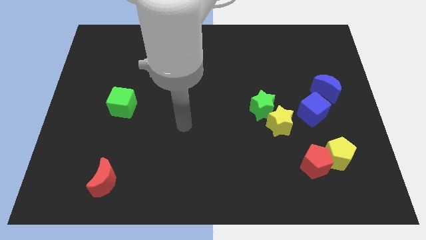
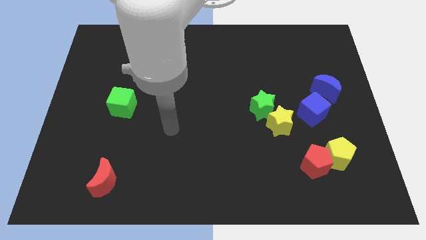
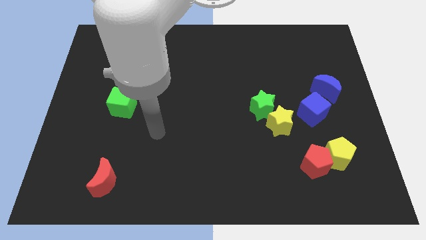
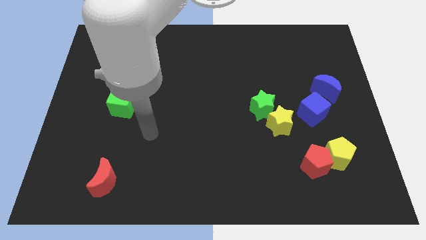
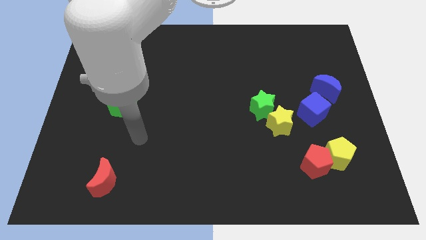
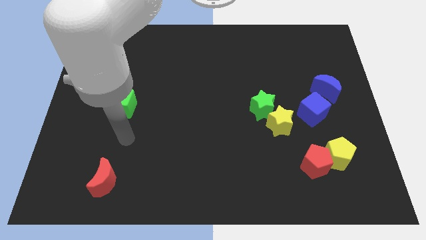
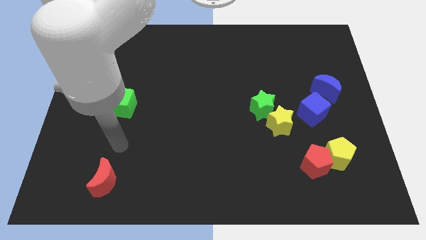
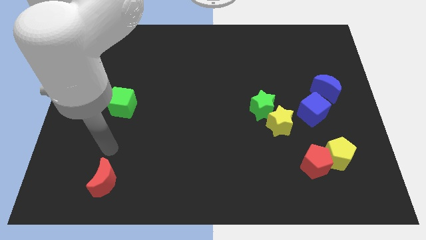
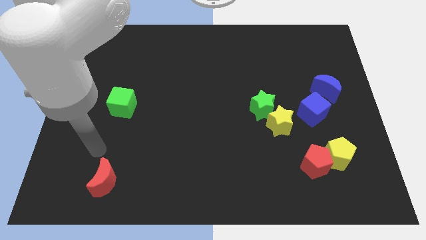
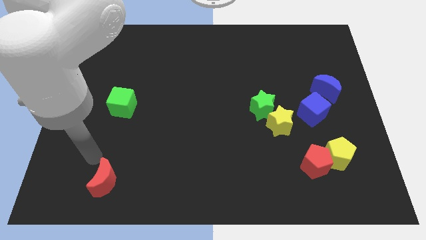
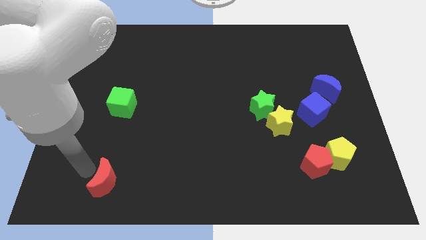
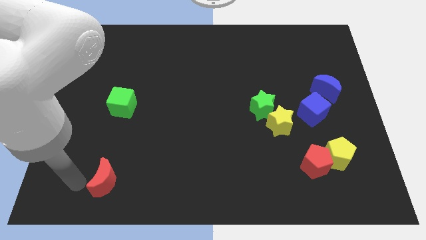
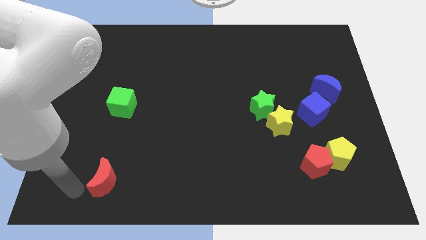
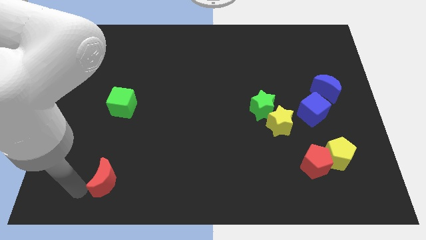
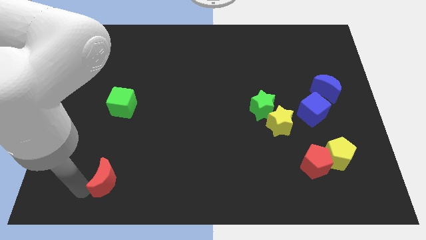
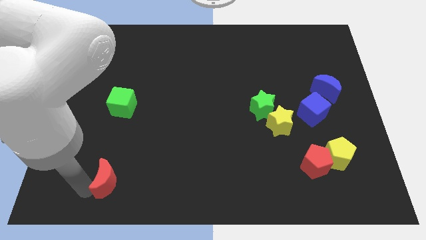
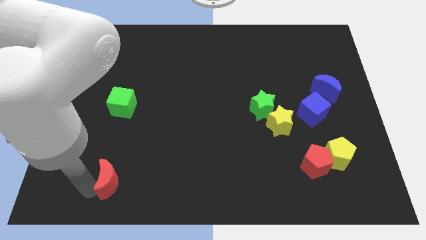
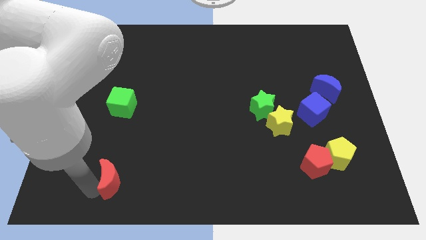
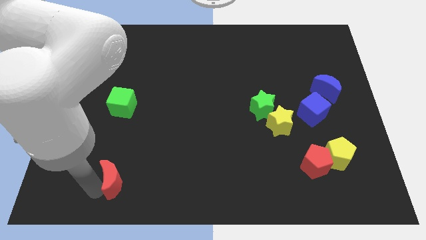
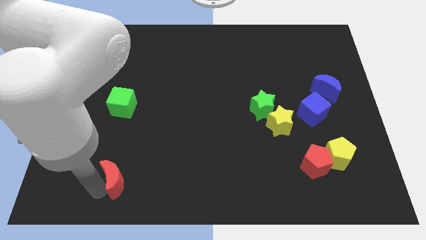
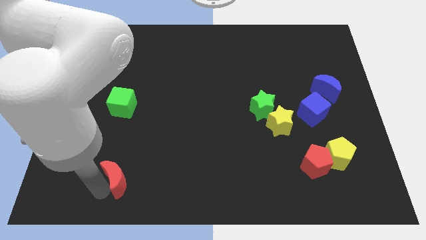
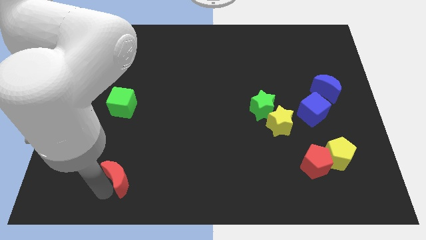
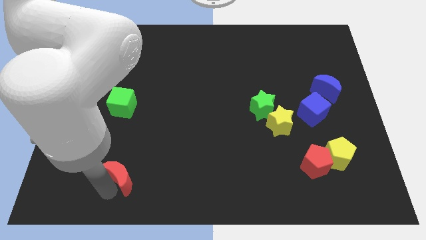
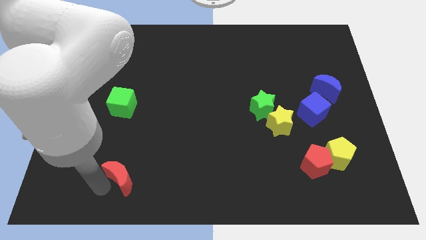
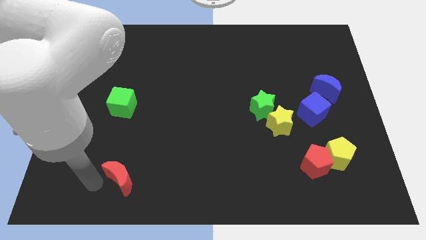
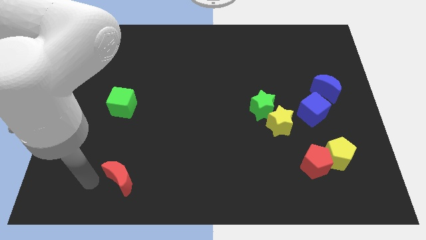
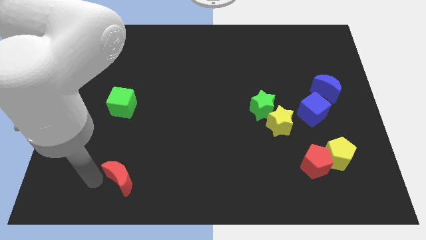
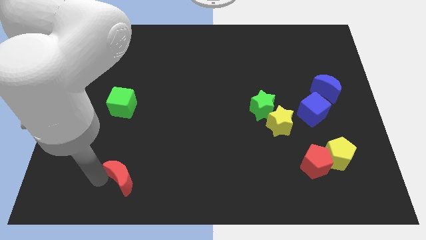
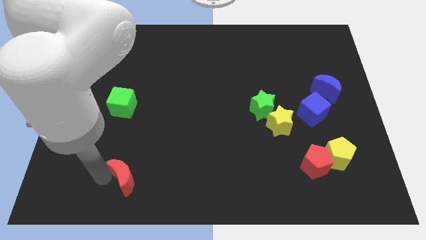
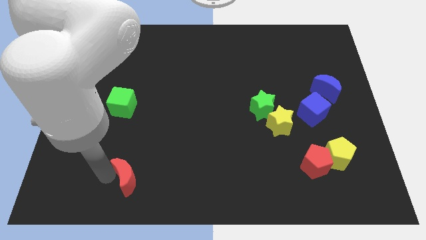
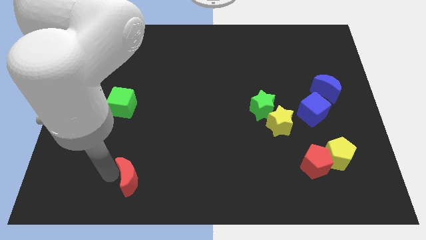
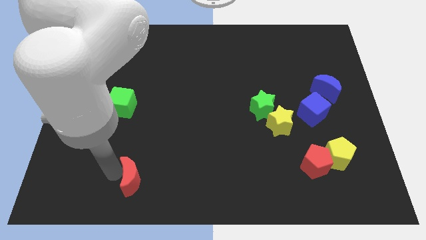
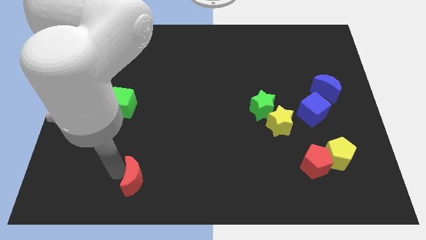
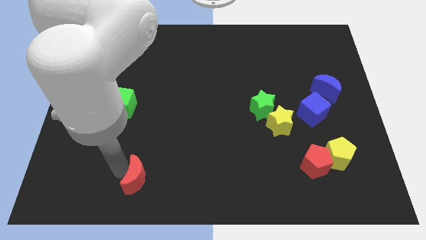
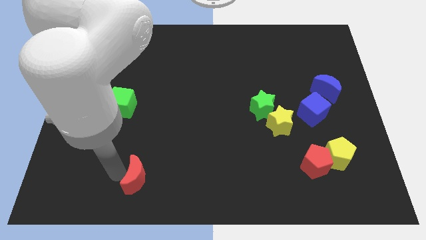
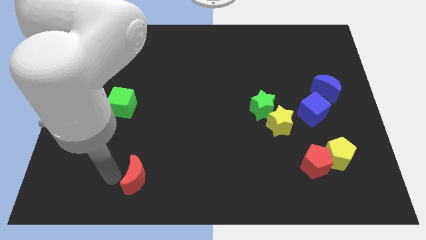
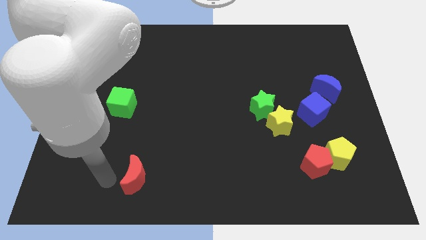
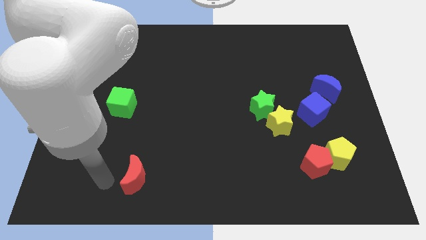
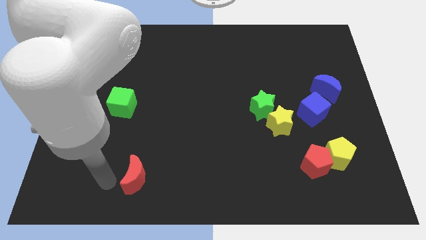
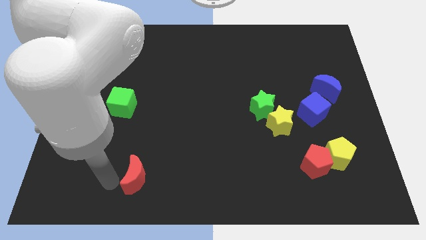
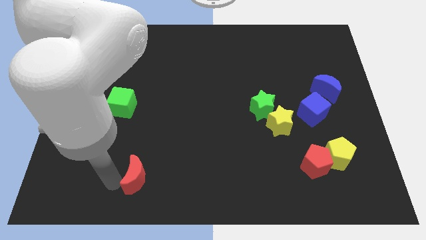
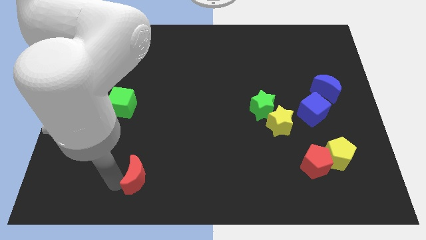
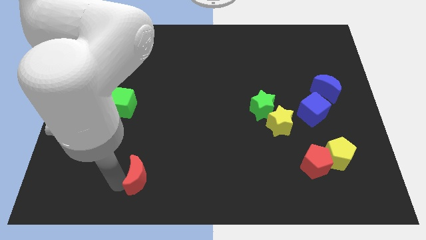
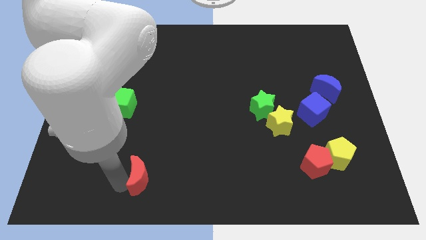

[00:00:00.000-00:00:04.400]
slightly move the red moon right

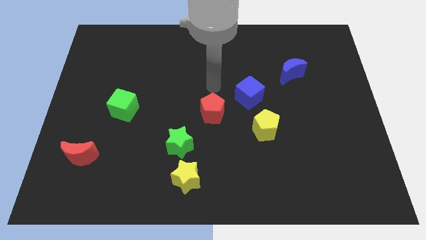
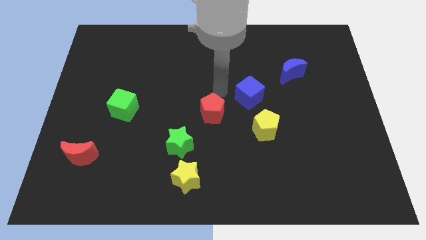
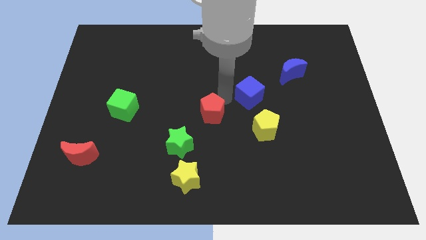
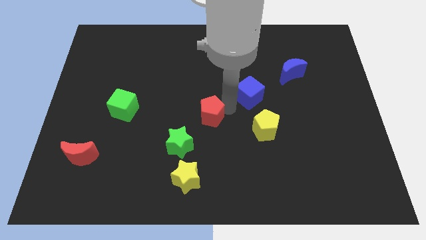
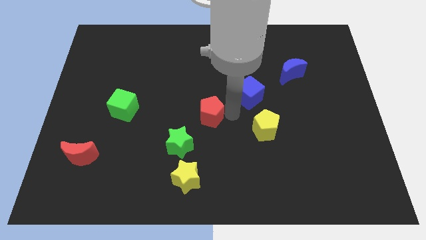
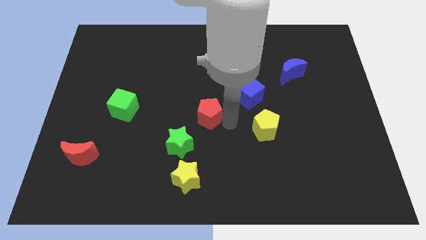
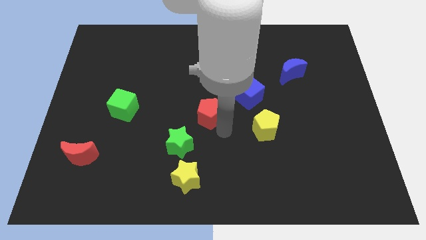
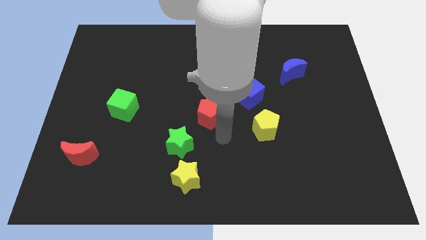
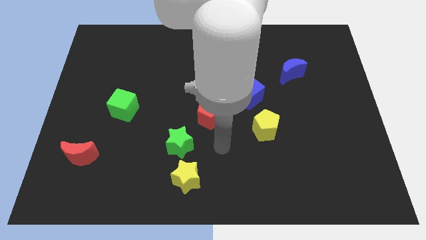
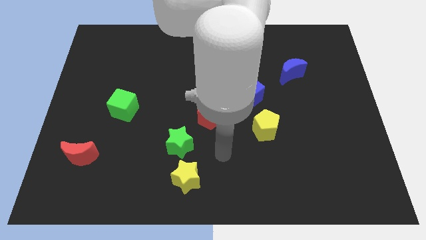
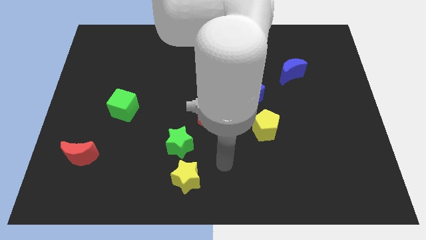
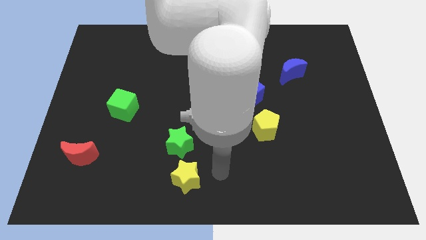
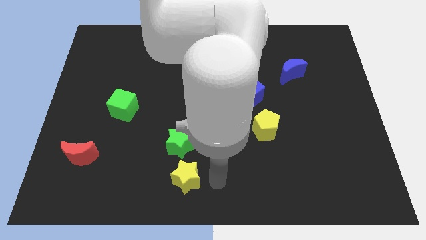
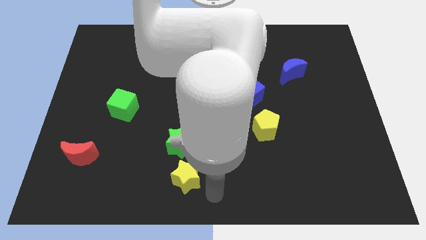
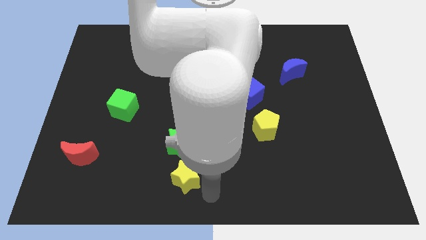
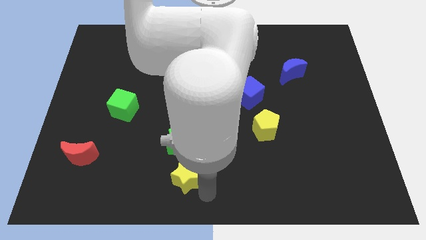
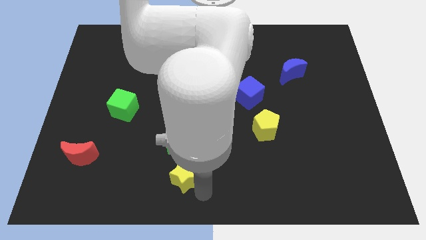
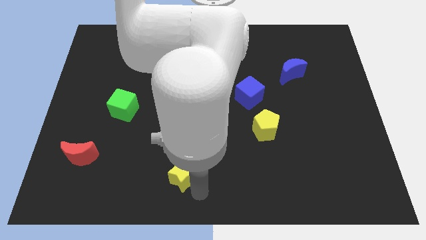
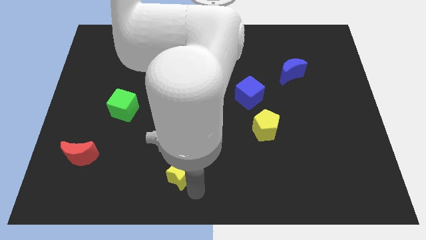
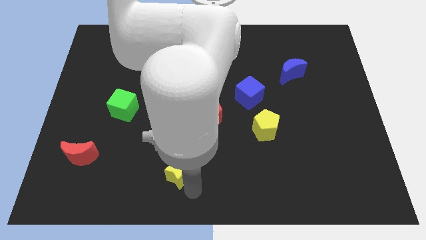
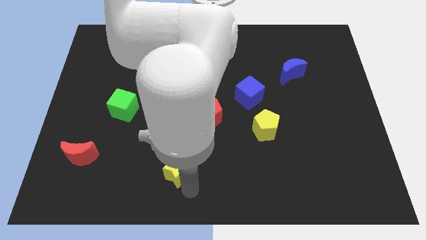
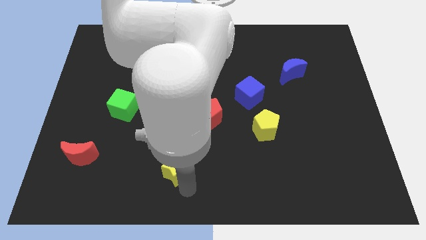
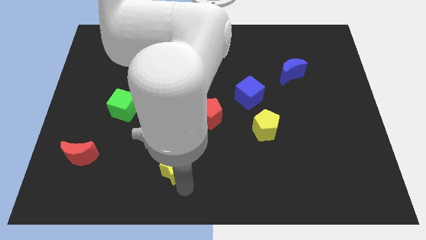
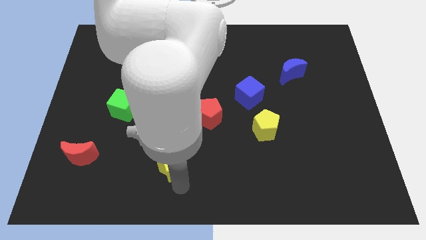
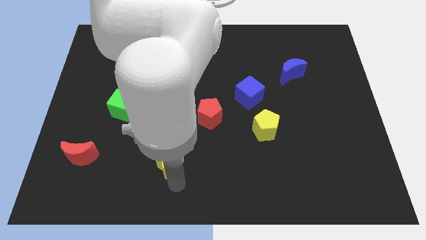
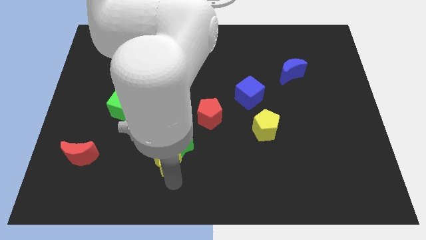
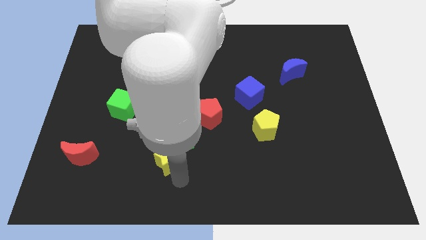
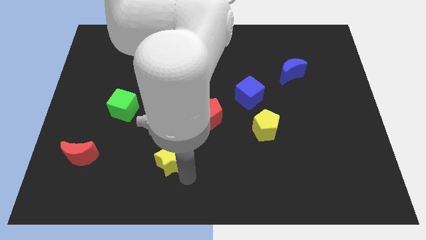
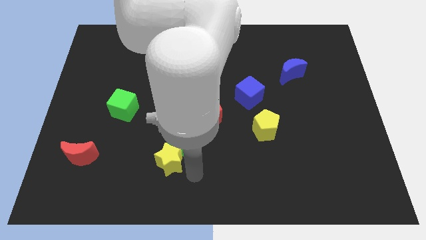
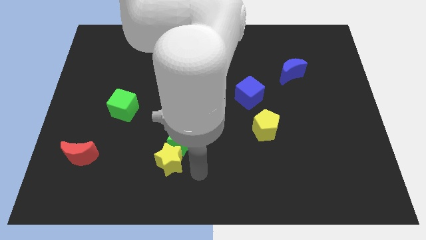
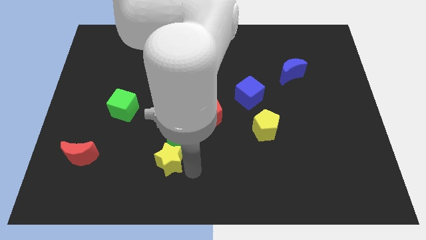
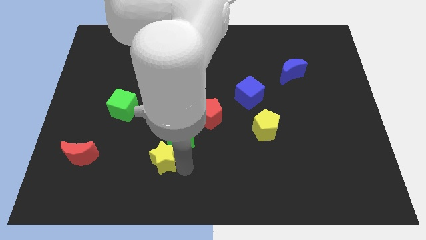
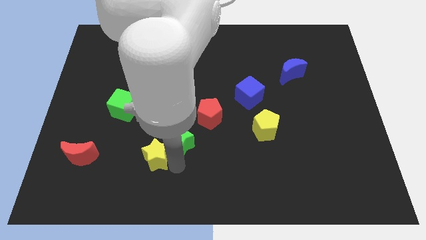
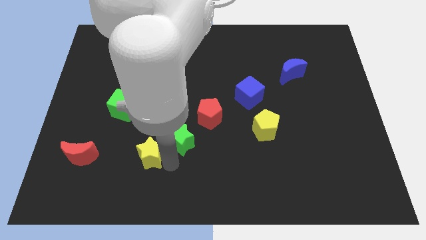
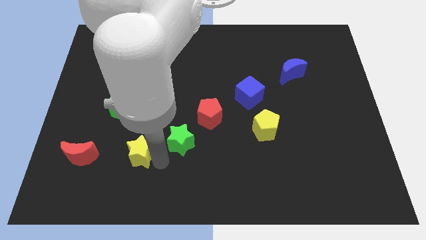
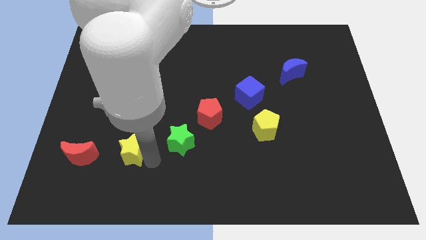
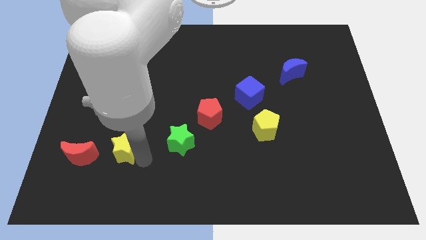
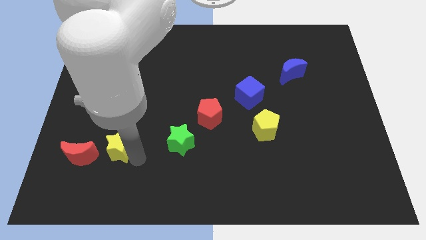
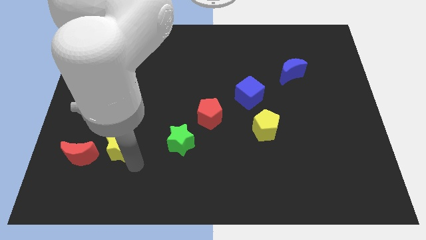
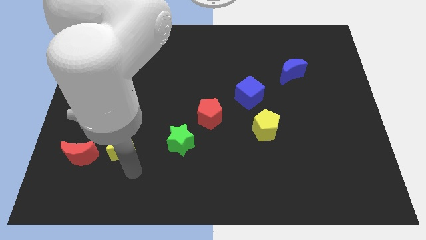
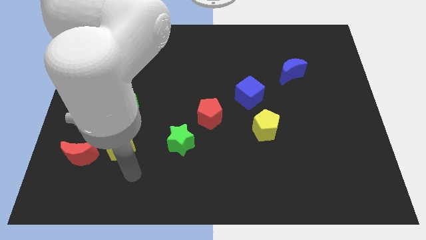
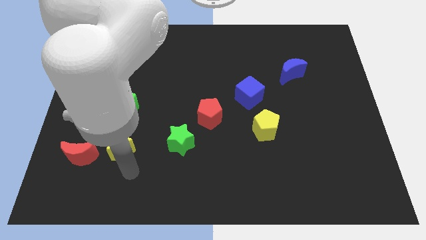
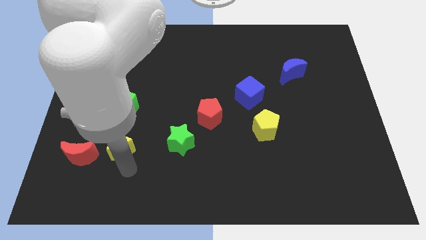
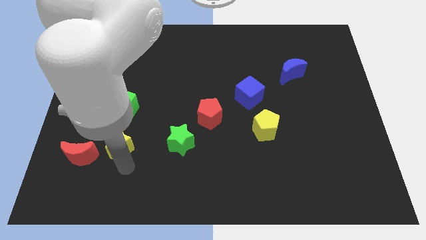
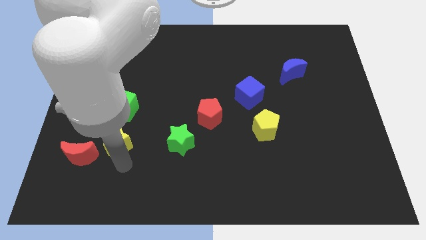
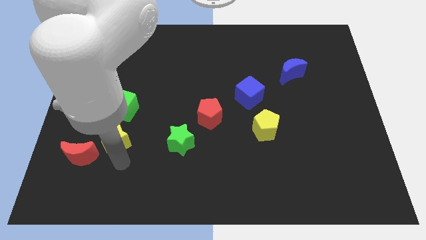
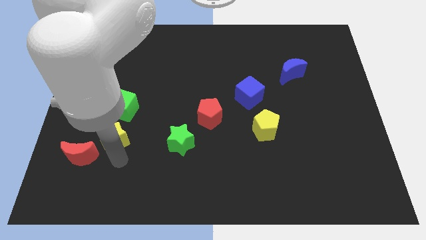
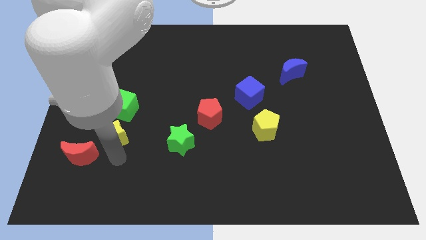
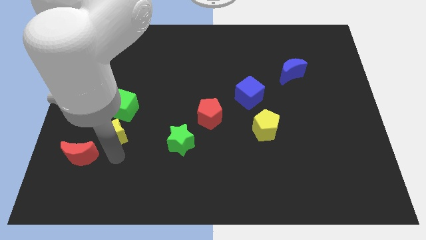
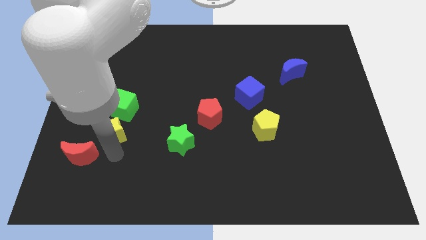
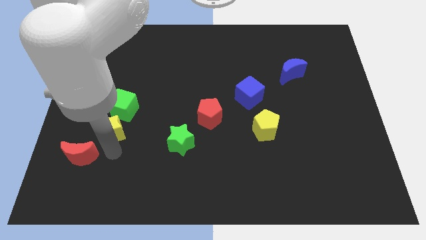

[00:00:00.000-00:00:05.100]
move the yellow star up and then left
